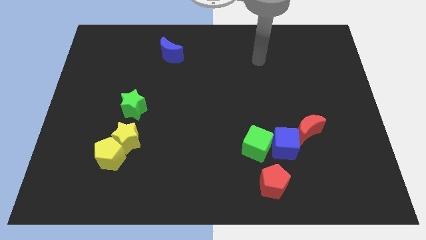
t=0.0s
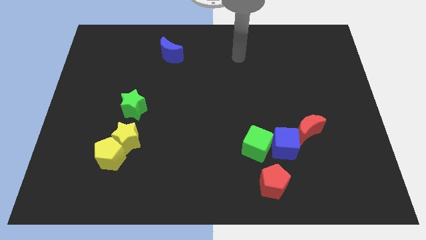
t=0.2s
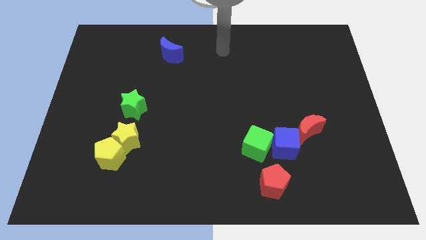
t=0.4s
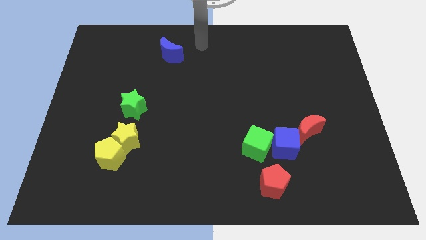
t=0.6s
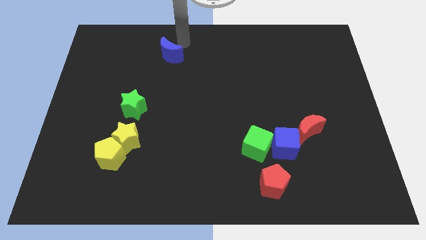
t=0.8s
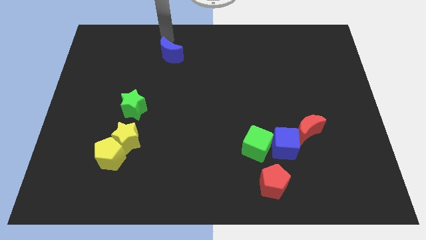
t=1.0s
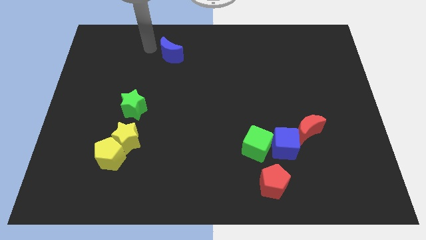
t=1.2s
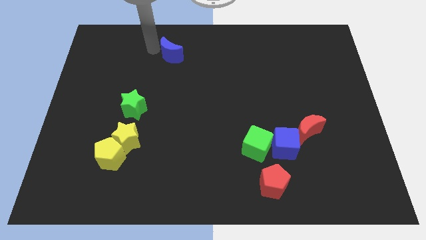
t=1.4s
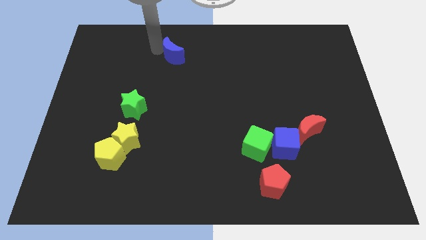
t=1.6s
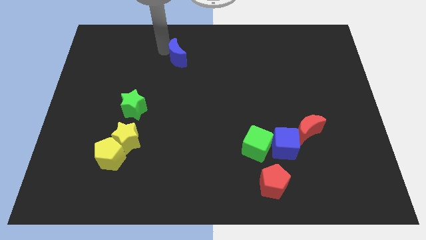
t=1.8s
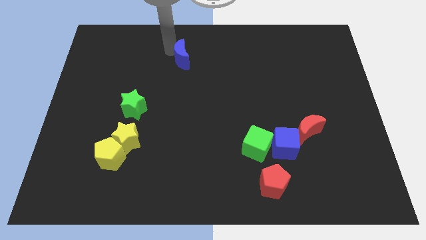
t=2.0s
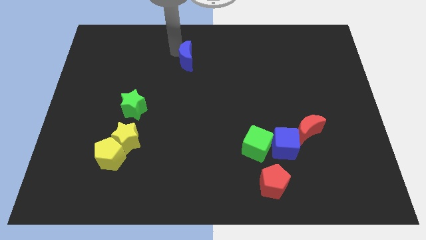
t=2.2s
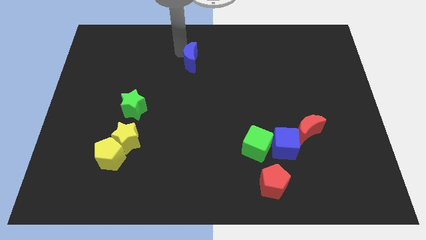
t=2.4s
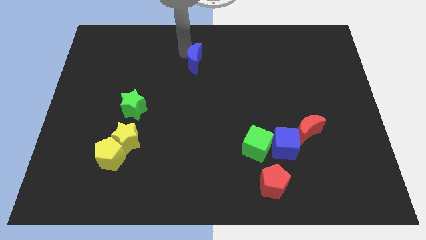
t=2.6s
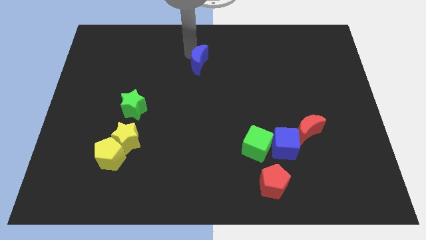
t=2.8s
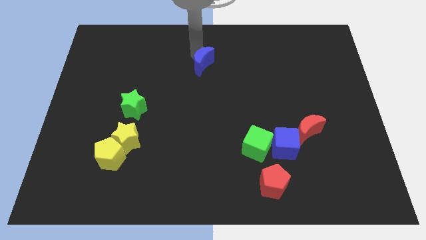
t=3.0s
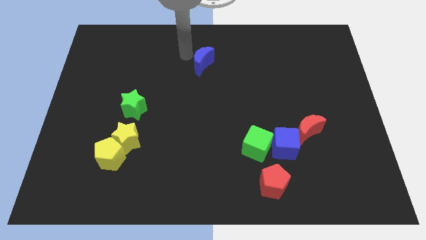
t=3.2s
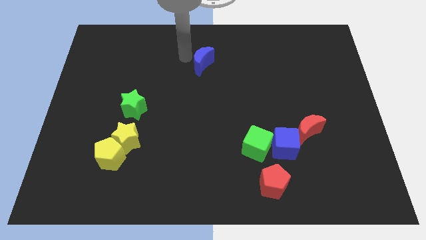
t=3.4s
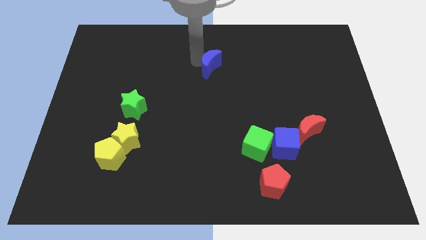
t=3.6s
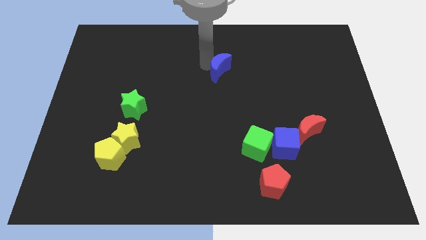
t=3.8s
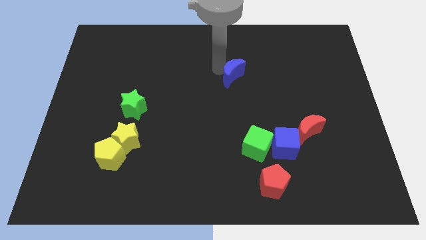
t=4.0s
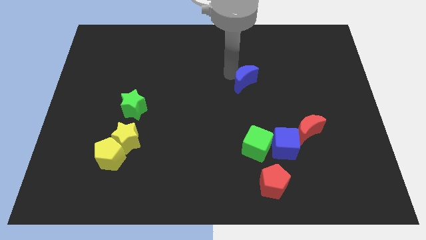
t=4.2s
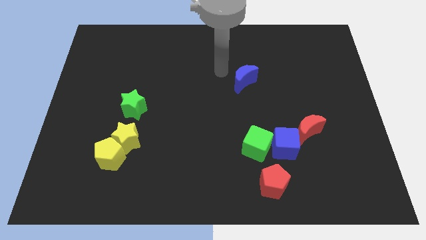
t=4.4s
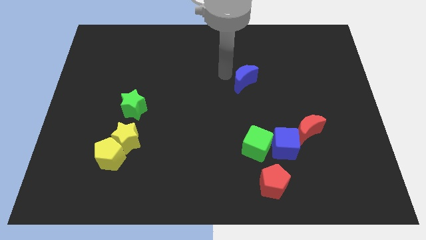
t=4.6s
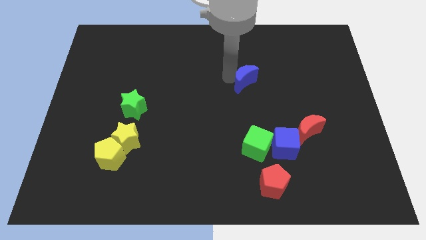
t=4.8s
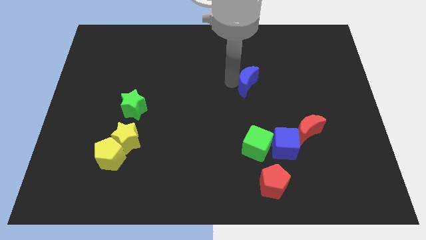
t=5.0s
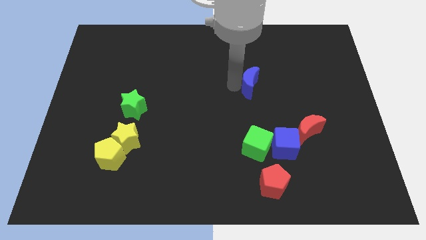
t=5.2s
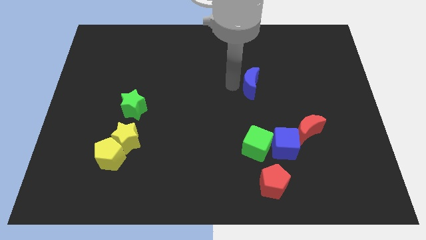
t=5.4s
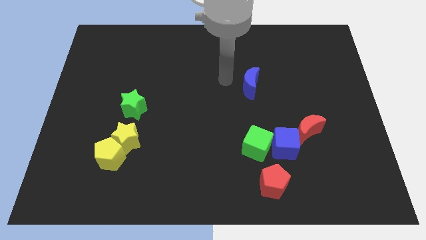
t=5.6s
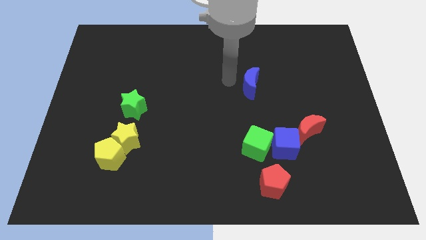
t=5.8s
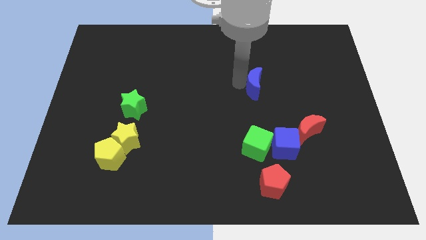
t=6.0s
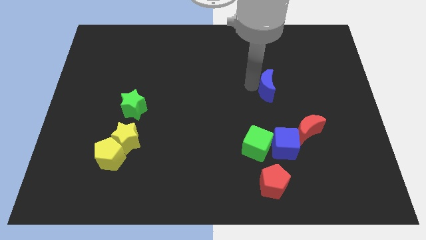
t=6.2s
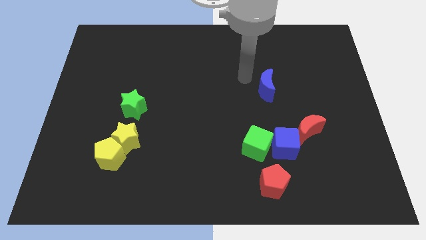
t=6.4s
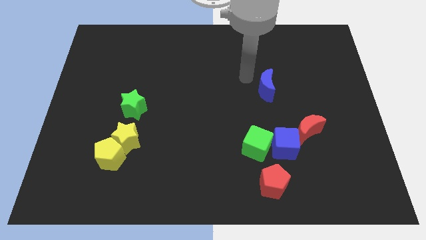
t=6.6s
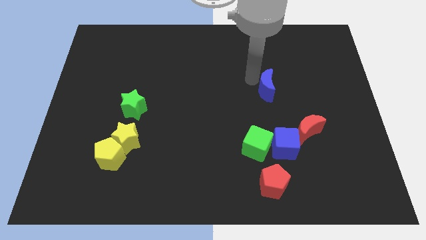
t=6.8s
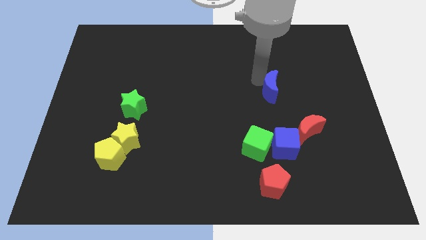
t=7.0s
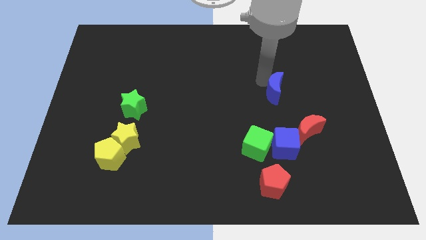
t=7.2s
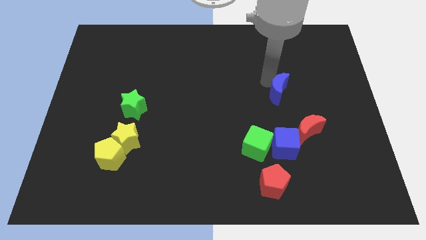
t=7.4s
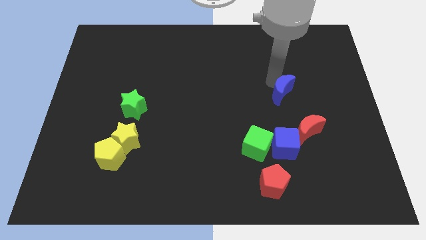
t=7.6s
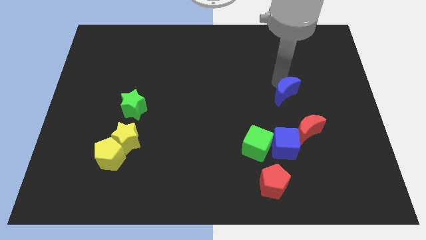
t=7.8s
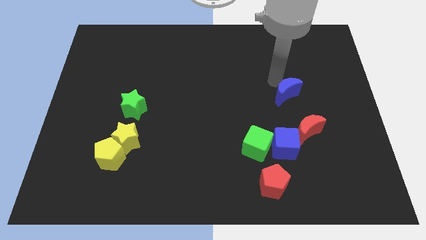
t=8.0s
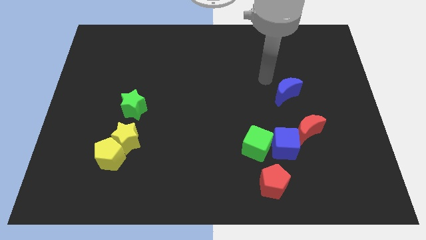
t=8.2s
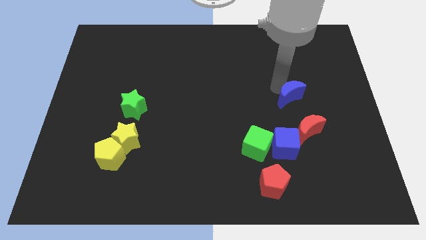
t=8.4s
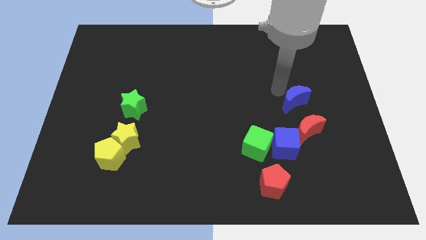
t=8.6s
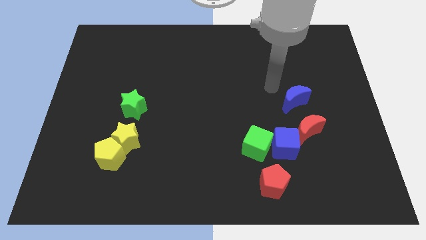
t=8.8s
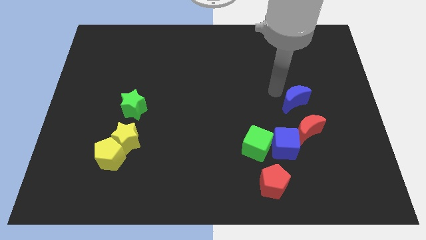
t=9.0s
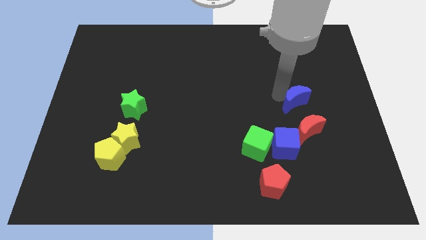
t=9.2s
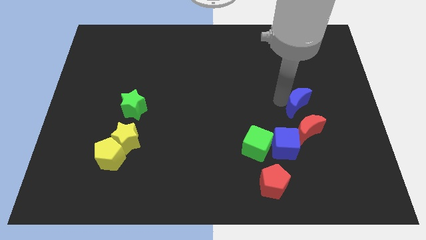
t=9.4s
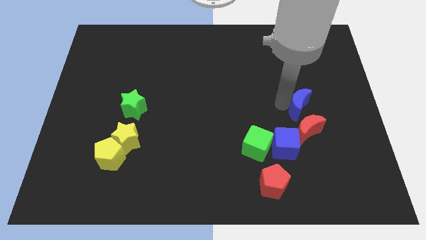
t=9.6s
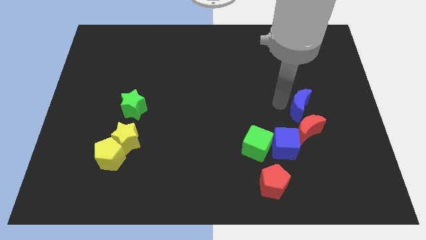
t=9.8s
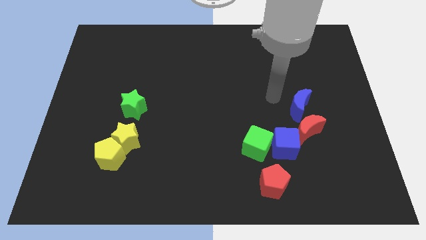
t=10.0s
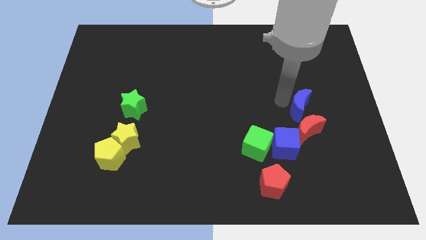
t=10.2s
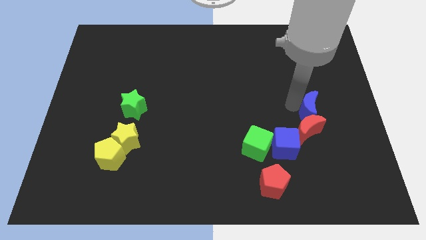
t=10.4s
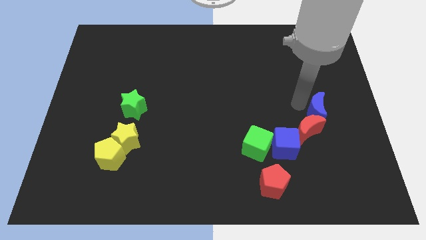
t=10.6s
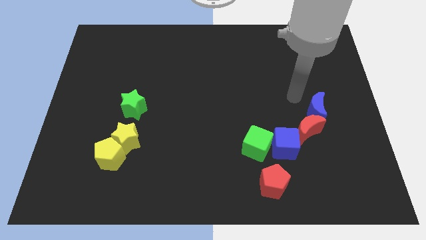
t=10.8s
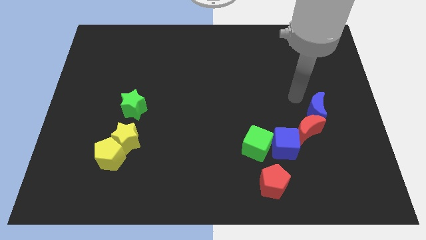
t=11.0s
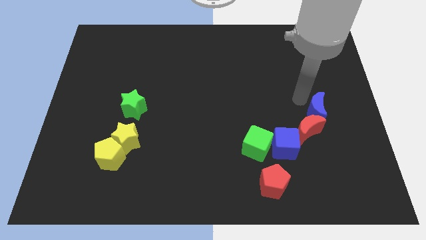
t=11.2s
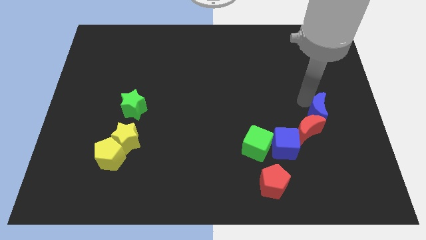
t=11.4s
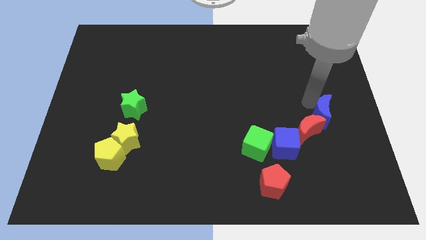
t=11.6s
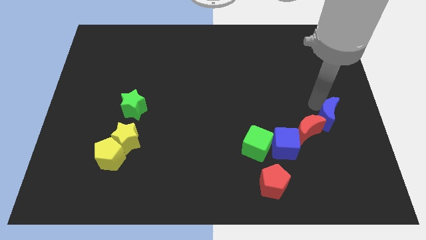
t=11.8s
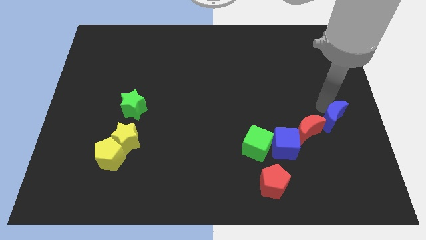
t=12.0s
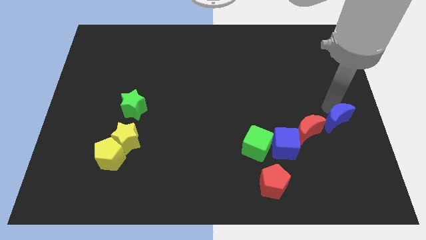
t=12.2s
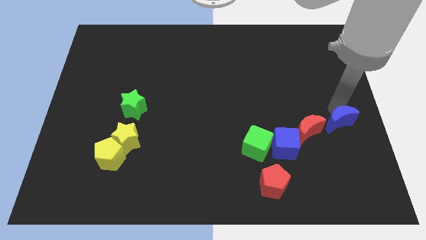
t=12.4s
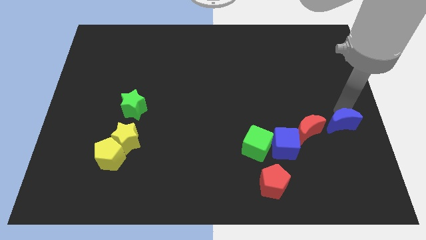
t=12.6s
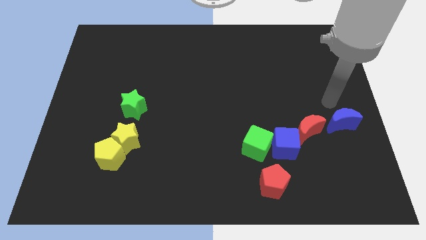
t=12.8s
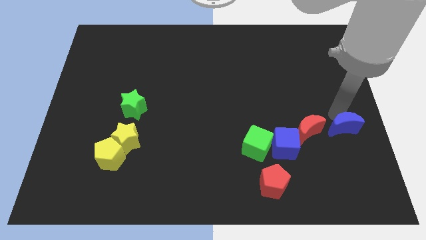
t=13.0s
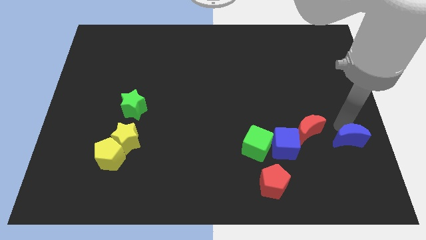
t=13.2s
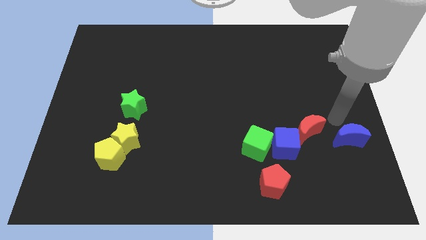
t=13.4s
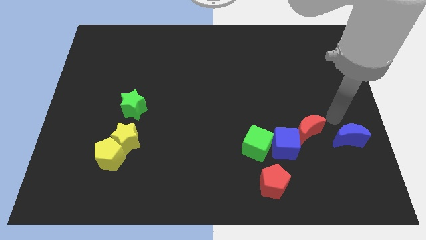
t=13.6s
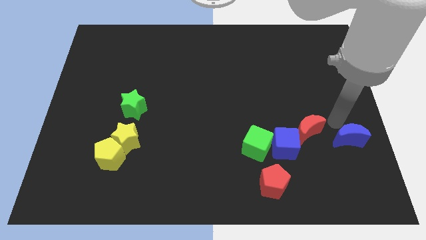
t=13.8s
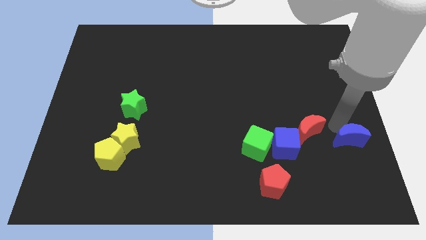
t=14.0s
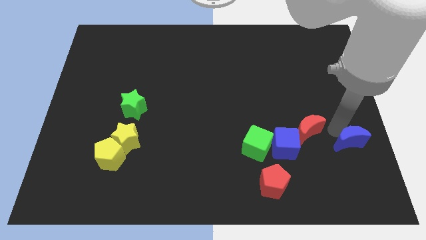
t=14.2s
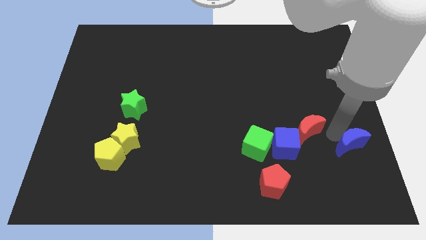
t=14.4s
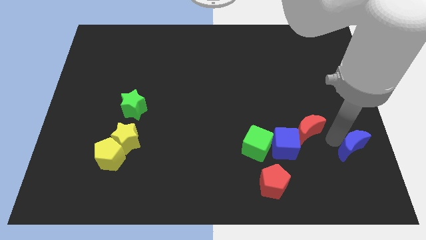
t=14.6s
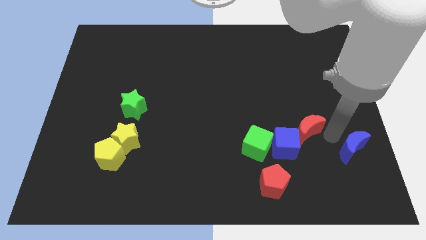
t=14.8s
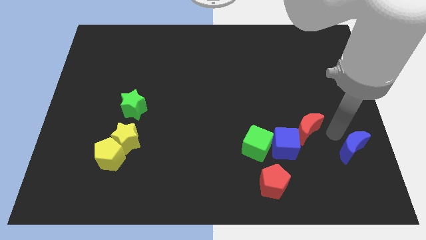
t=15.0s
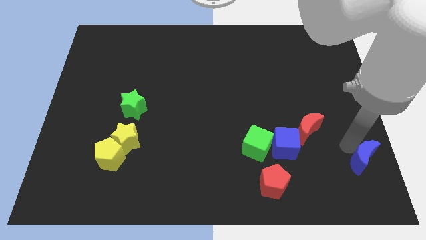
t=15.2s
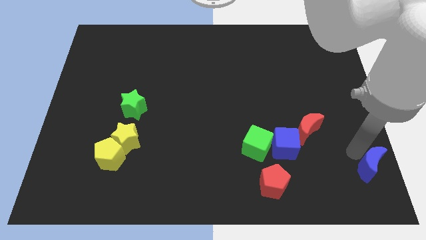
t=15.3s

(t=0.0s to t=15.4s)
put the blue moon to the bottom right corner

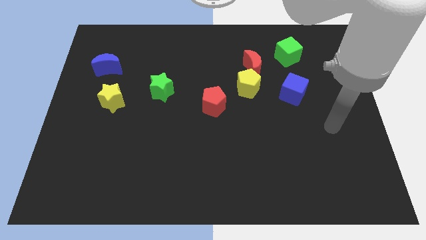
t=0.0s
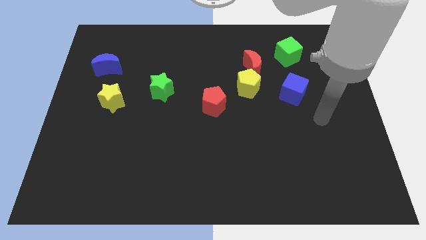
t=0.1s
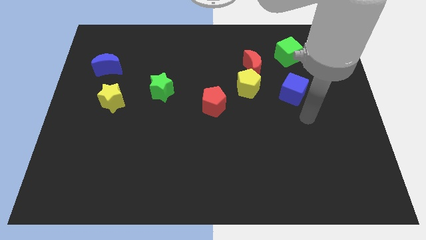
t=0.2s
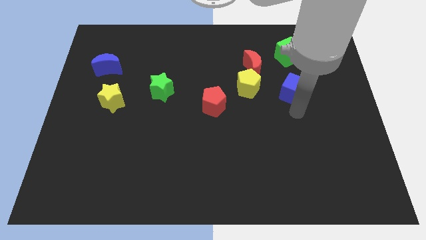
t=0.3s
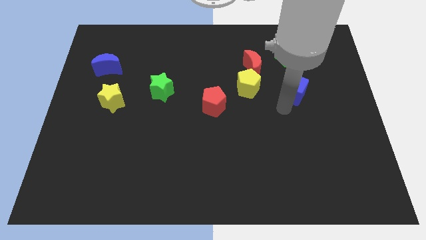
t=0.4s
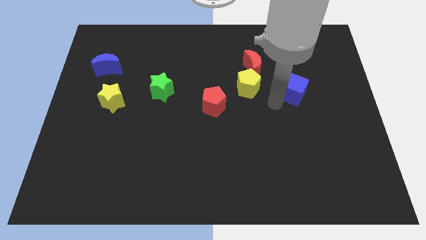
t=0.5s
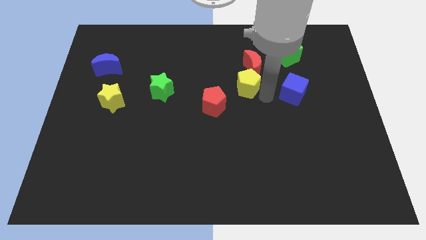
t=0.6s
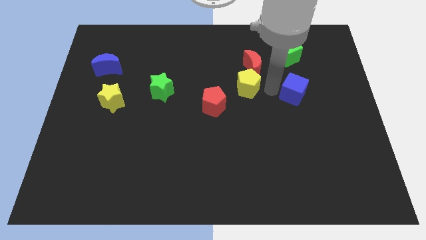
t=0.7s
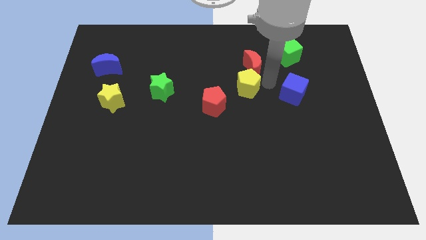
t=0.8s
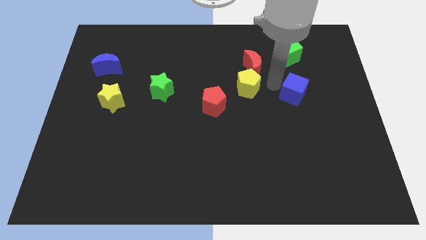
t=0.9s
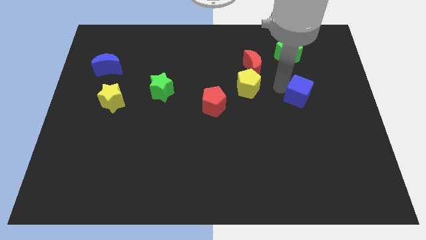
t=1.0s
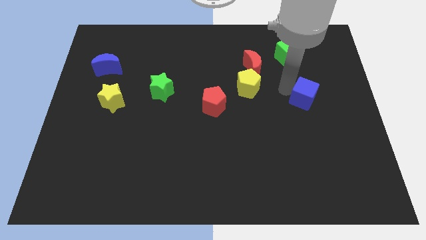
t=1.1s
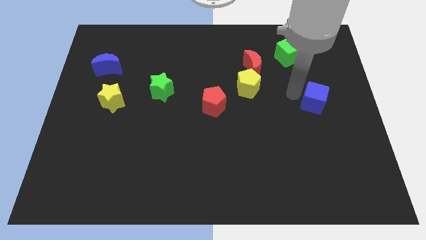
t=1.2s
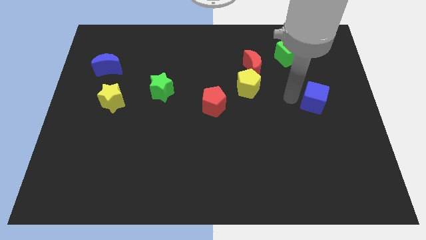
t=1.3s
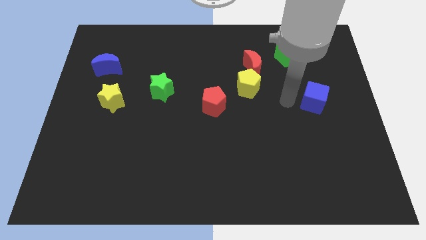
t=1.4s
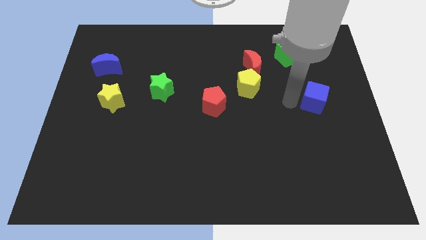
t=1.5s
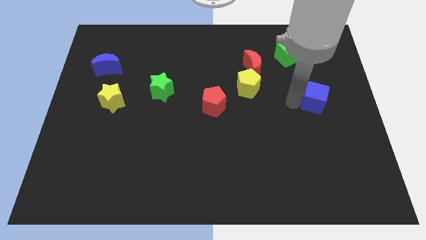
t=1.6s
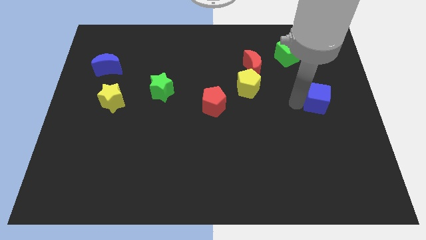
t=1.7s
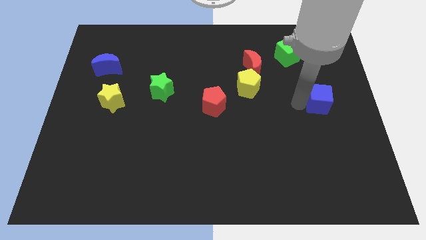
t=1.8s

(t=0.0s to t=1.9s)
put the blue cube to the center right
